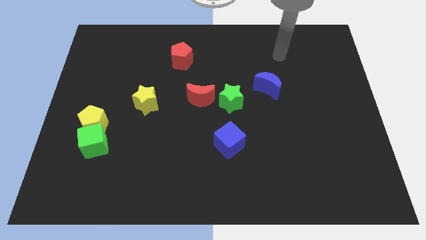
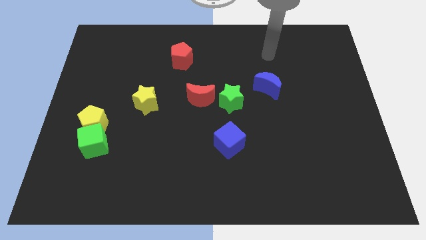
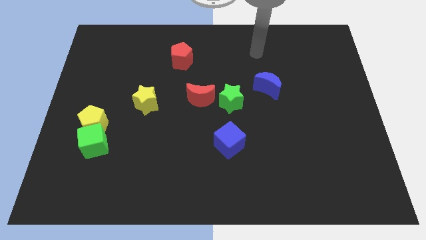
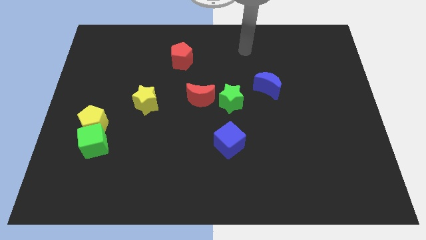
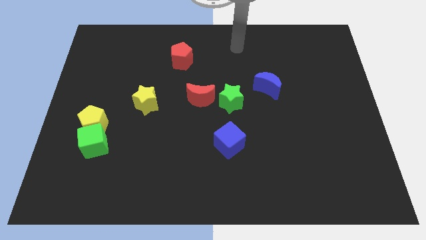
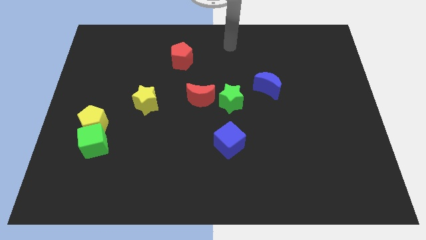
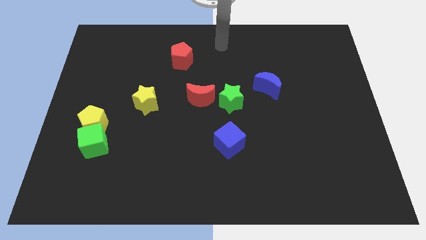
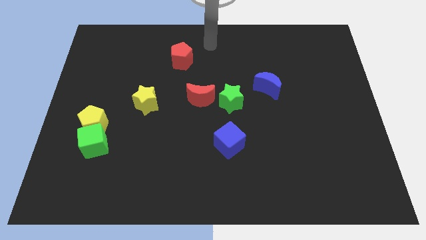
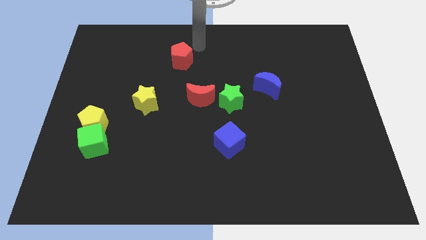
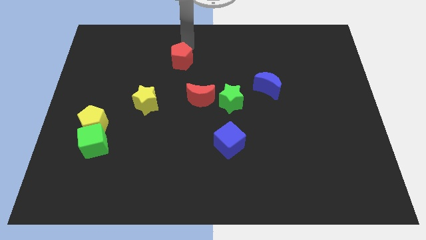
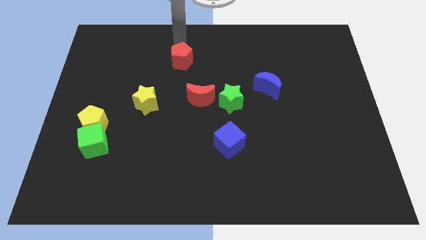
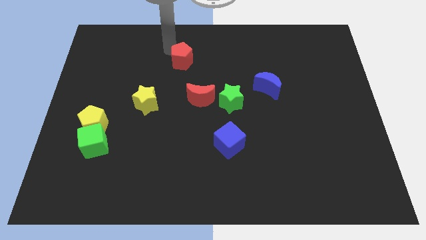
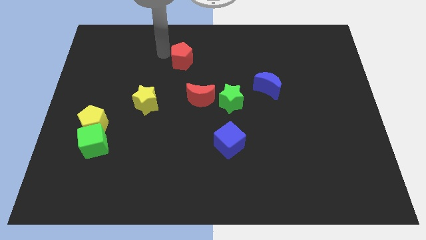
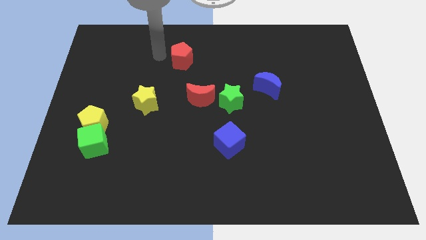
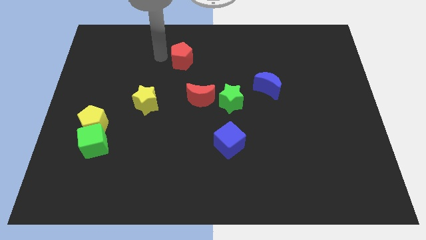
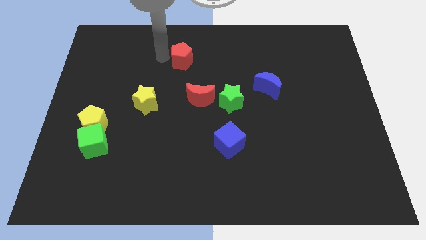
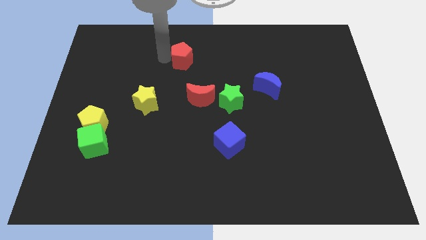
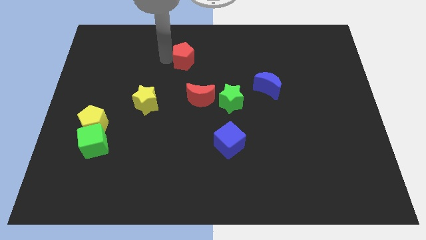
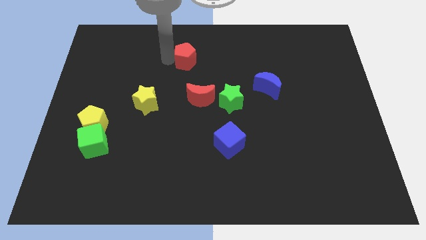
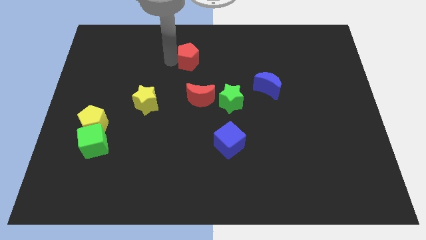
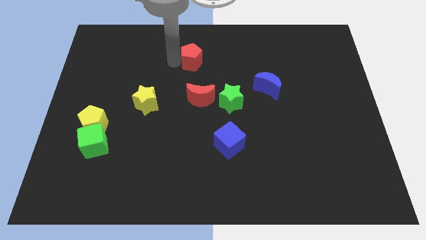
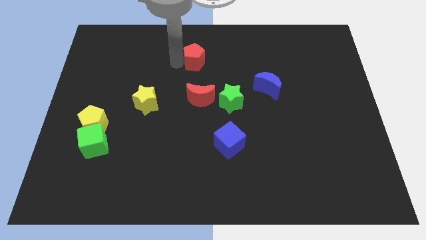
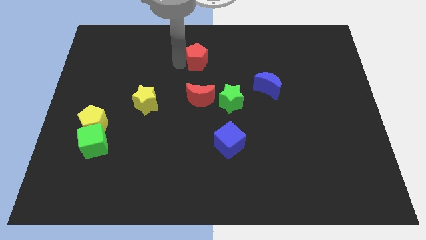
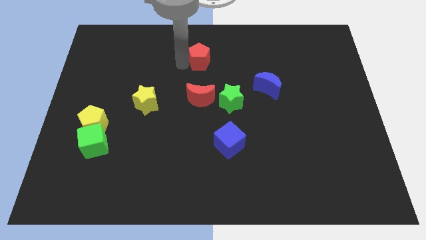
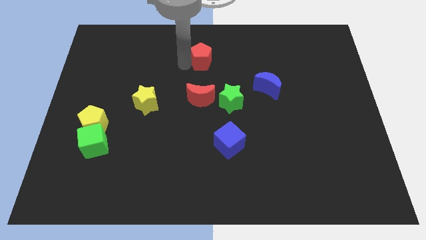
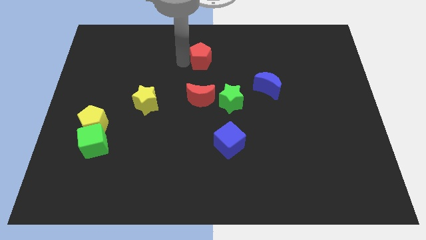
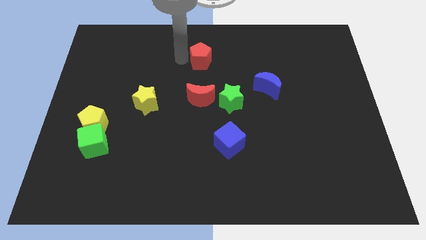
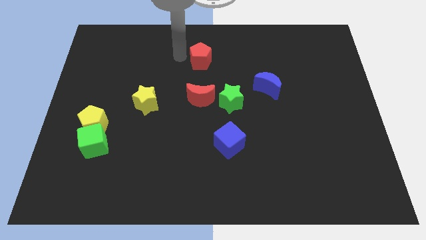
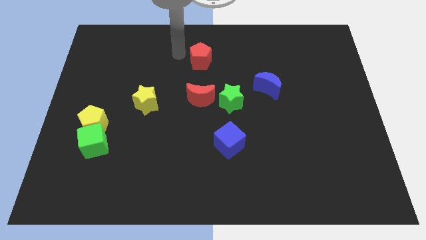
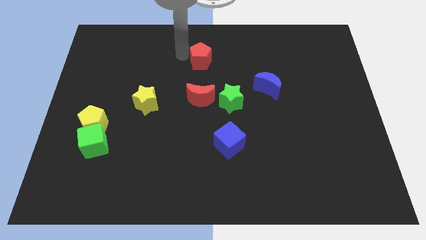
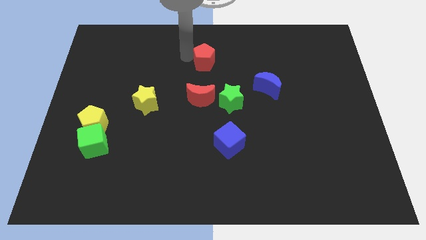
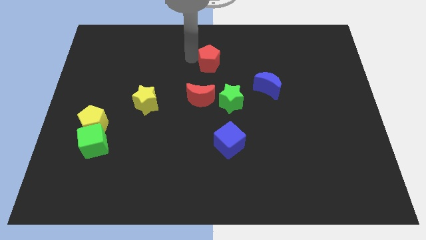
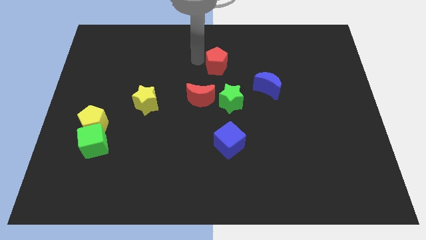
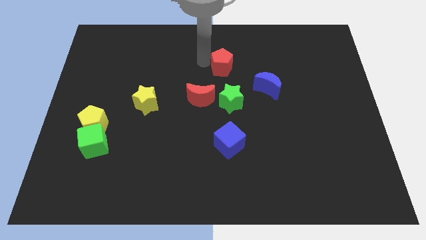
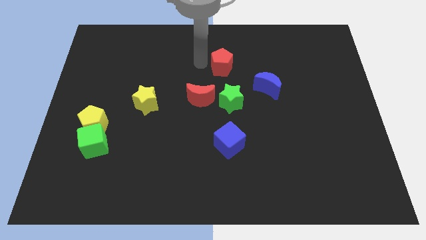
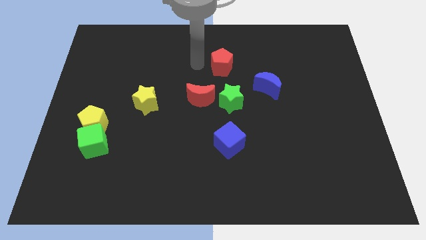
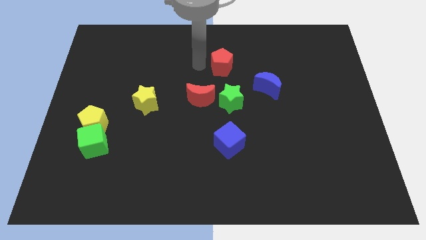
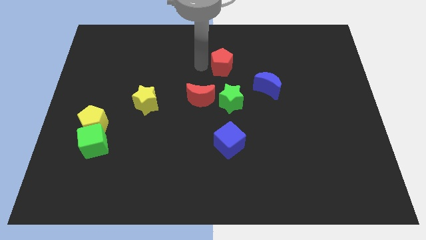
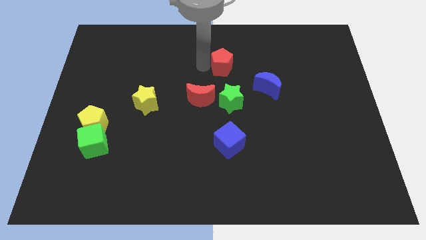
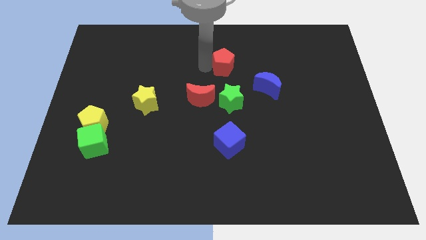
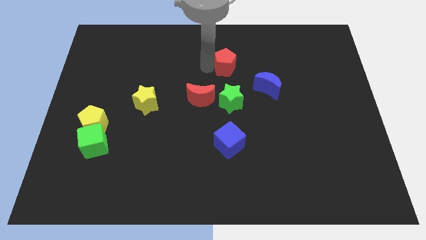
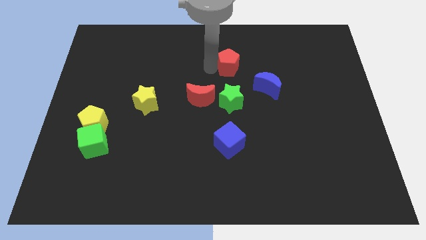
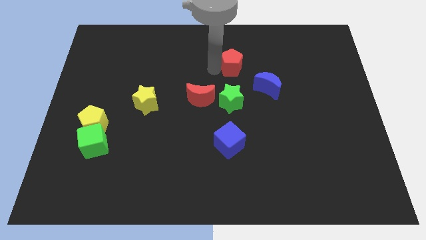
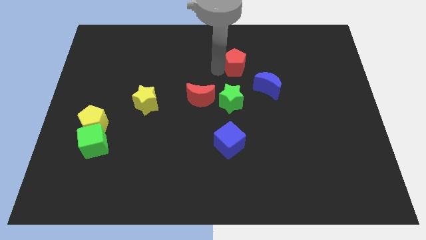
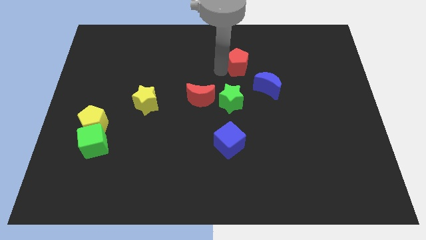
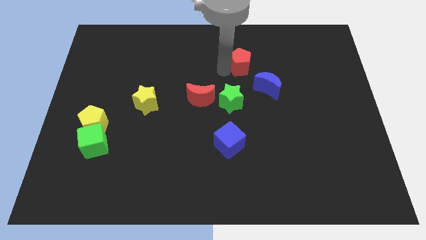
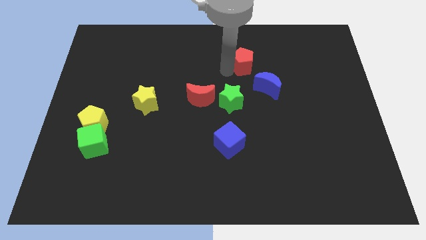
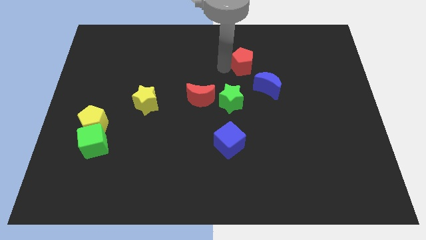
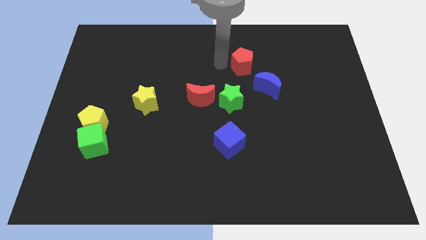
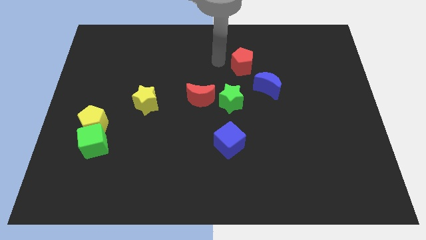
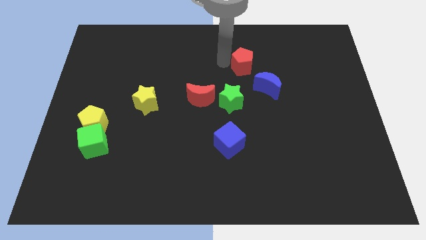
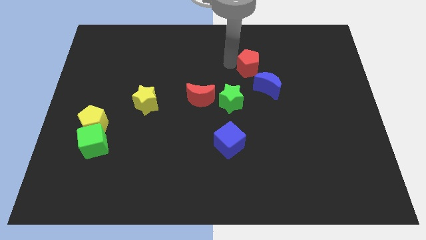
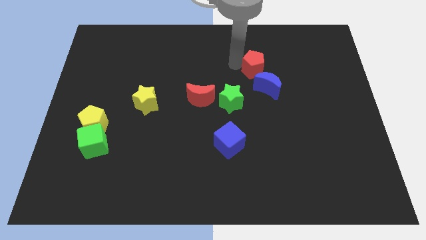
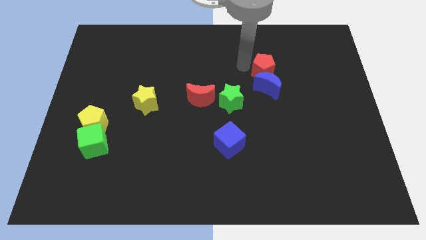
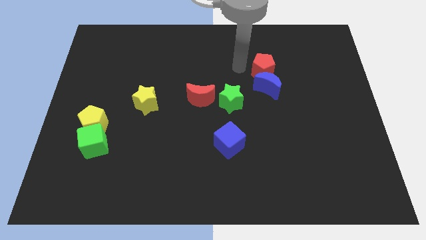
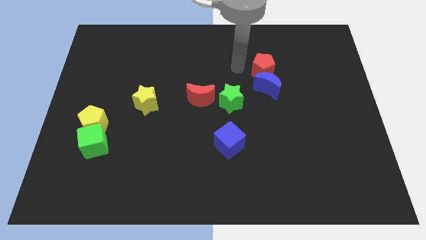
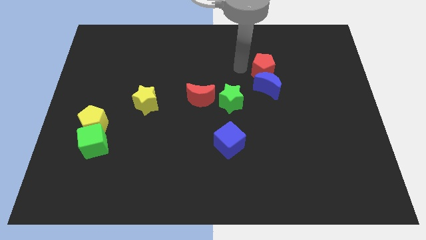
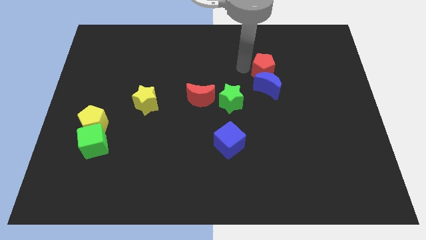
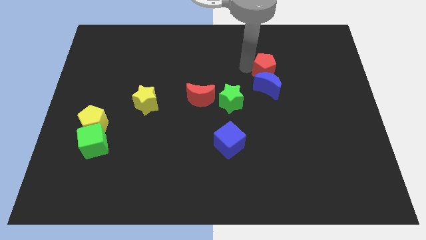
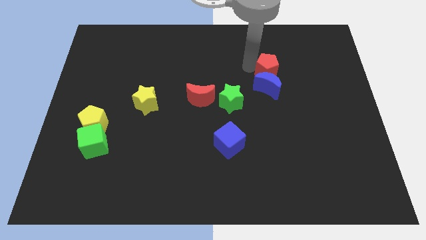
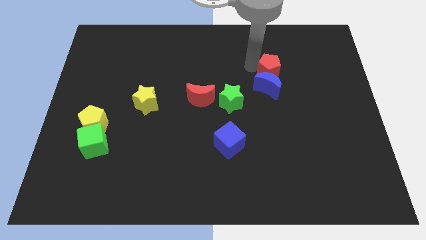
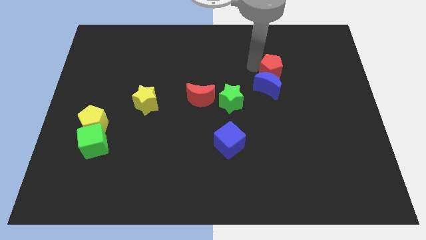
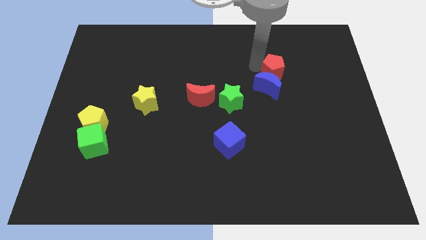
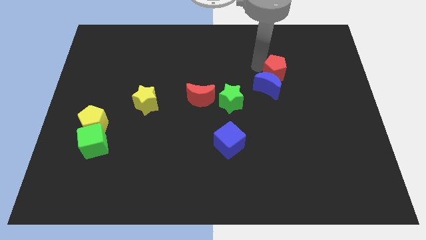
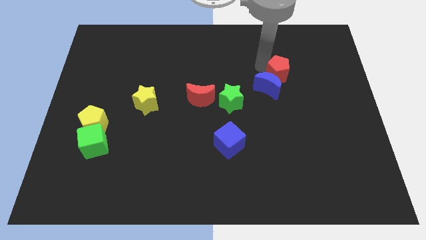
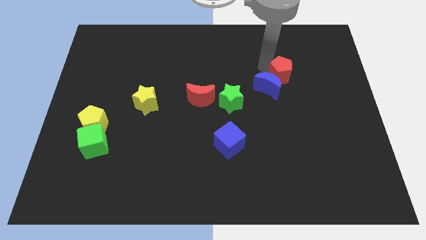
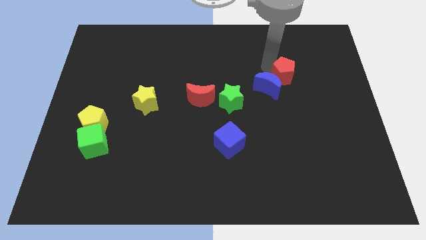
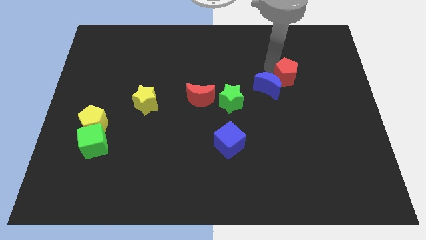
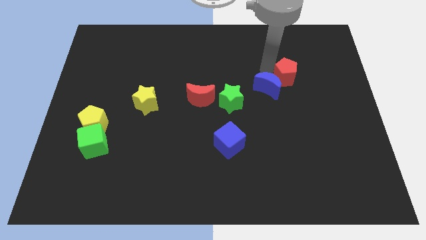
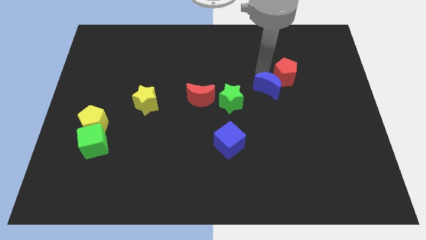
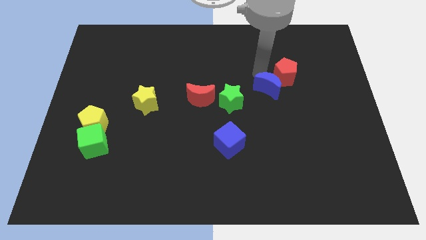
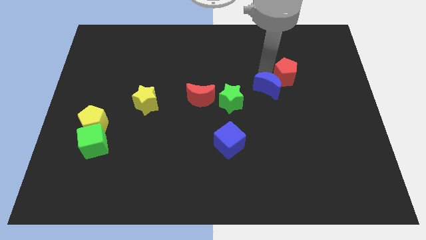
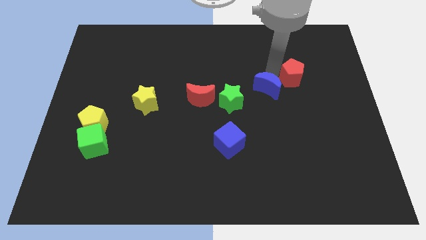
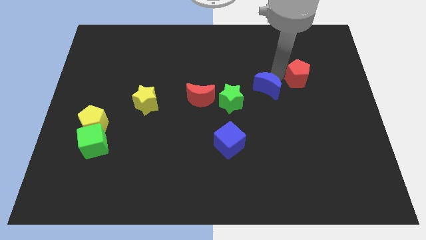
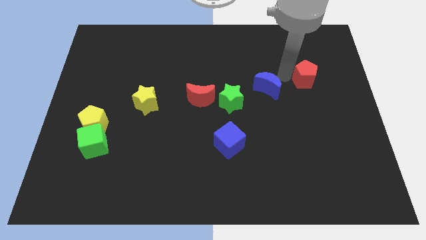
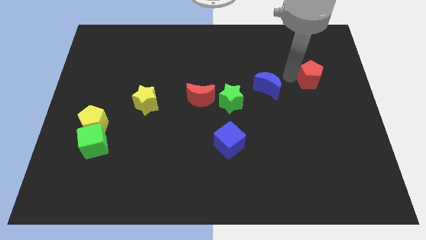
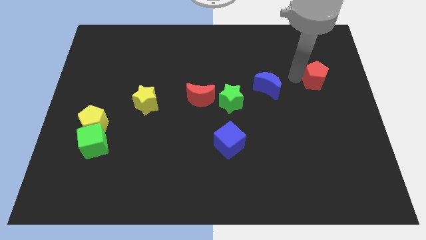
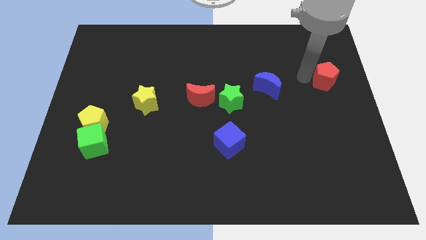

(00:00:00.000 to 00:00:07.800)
slide the red pentagon to the center right
